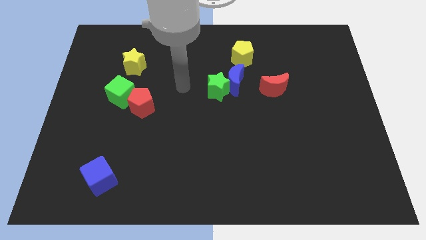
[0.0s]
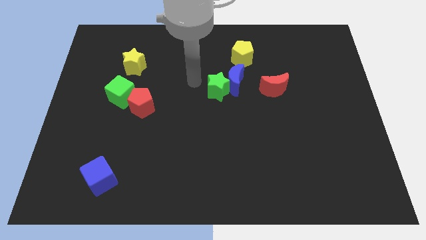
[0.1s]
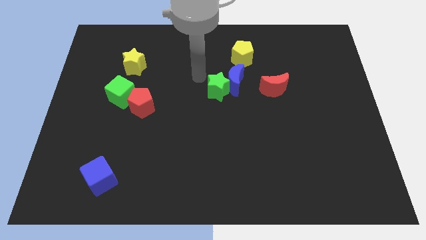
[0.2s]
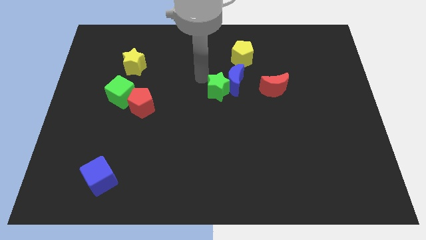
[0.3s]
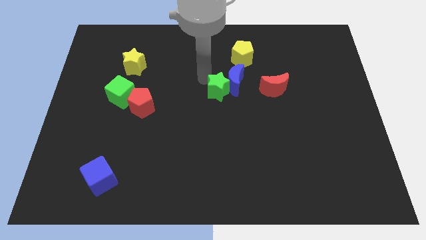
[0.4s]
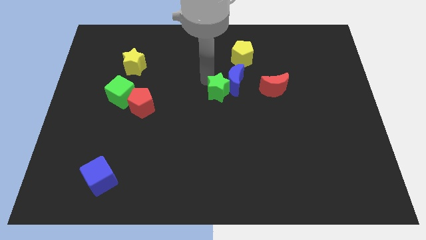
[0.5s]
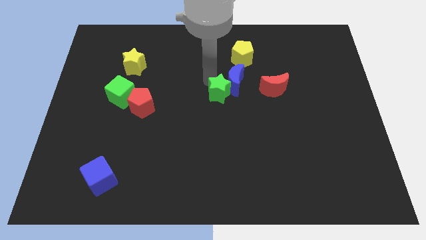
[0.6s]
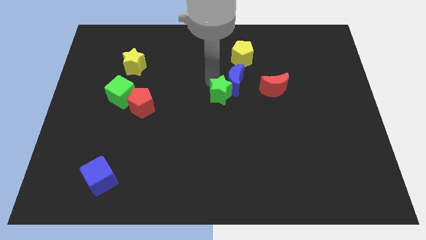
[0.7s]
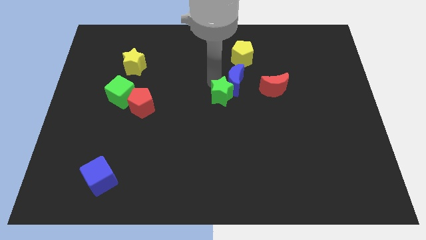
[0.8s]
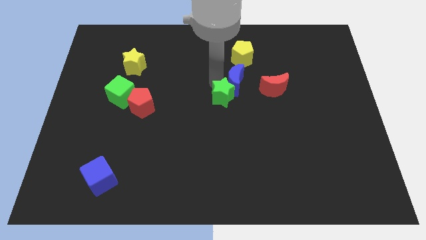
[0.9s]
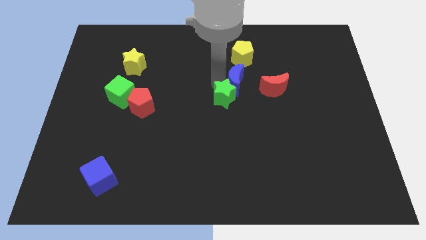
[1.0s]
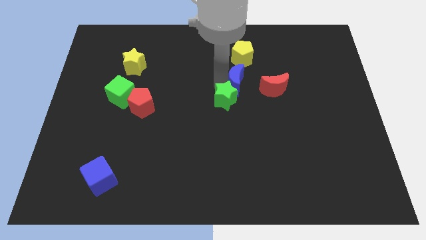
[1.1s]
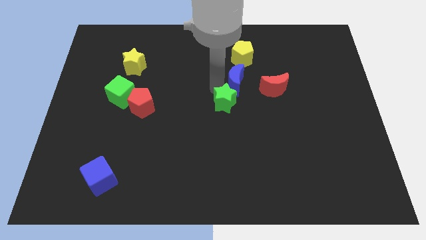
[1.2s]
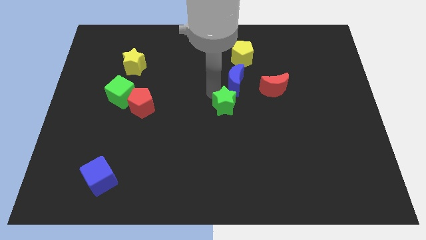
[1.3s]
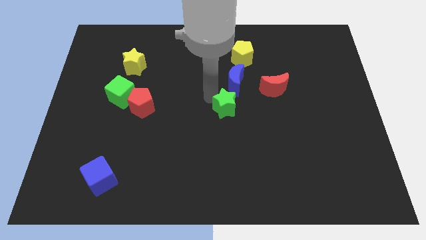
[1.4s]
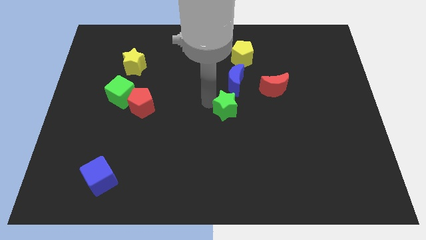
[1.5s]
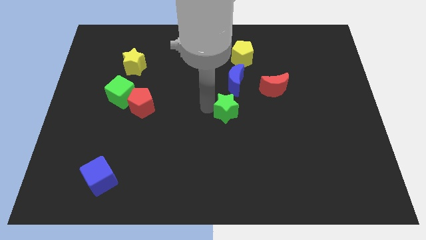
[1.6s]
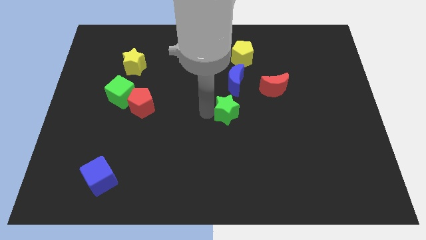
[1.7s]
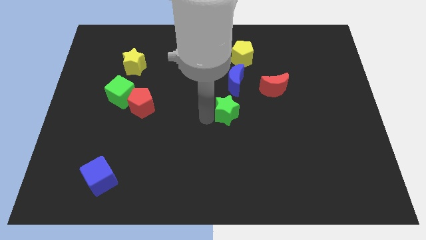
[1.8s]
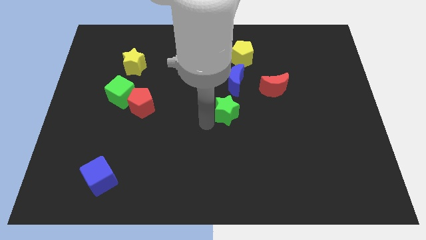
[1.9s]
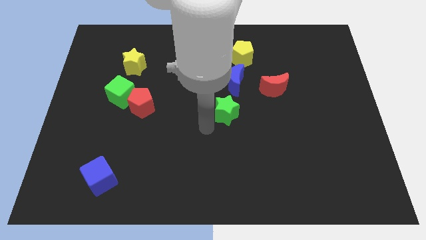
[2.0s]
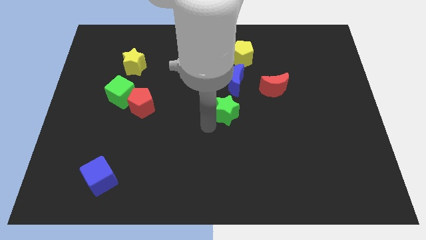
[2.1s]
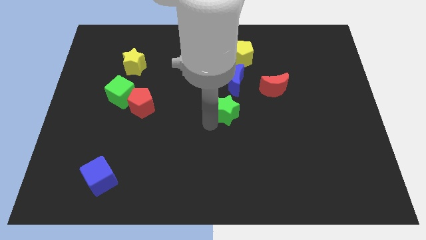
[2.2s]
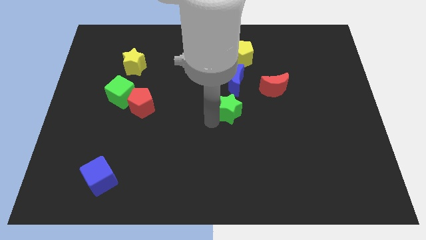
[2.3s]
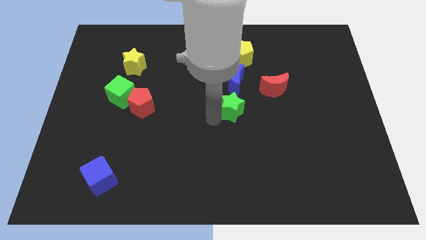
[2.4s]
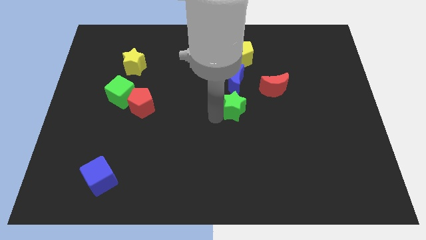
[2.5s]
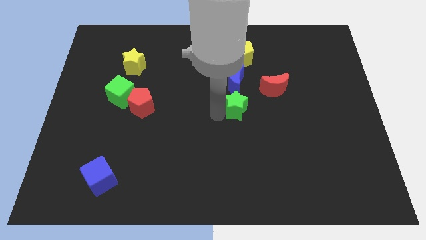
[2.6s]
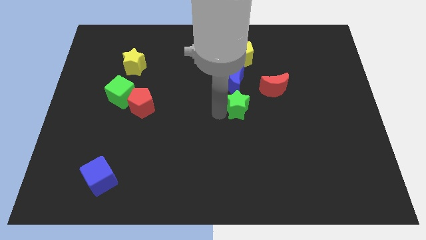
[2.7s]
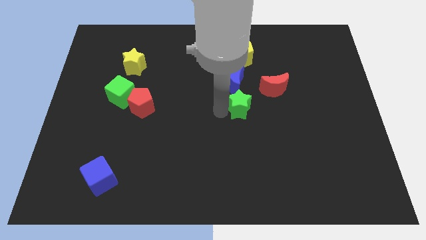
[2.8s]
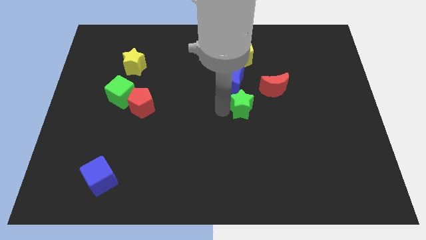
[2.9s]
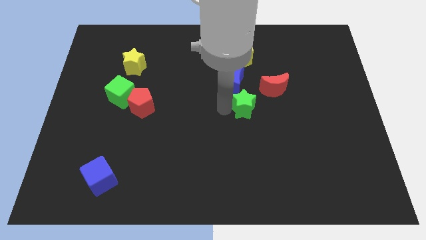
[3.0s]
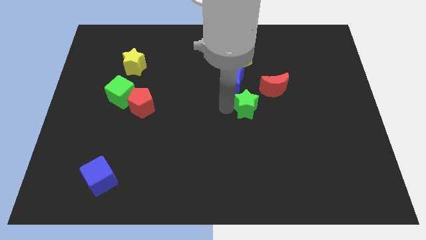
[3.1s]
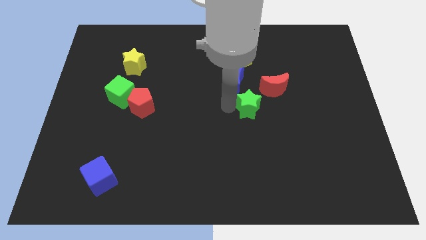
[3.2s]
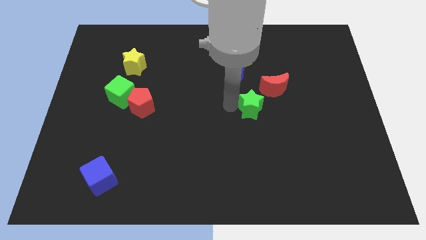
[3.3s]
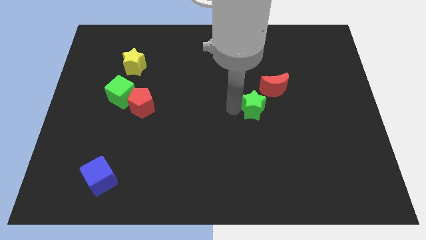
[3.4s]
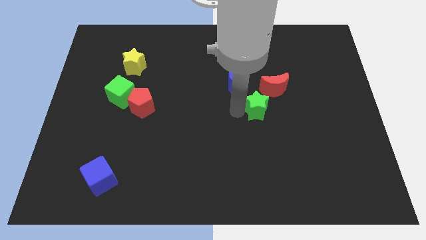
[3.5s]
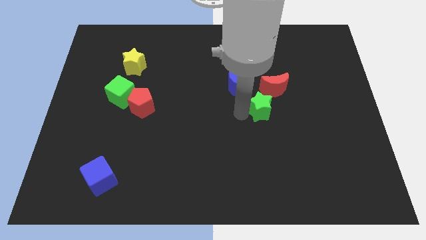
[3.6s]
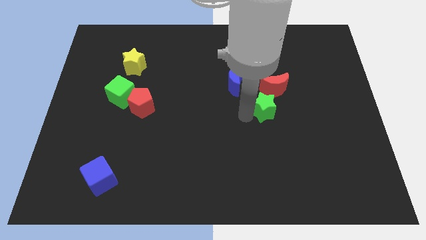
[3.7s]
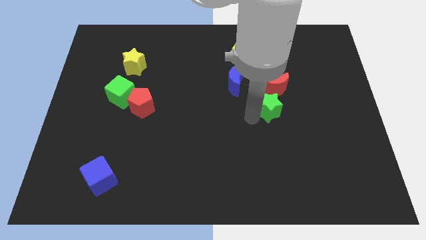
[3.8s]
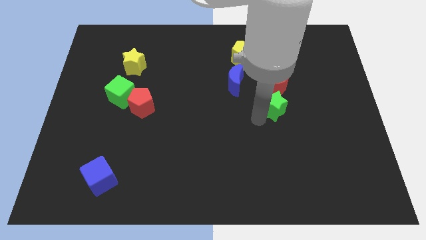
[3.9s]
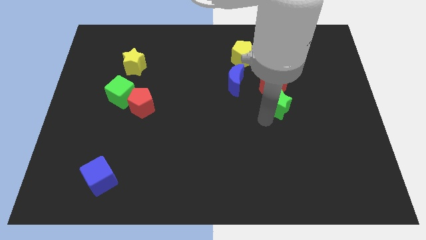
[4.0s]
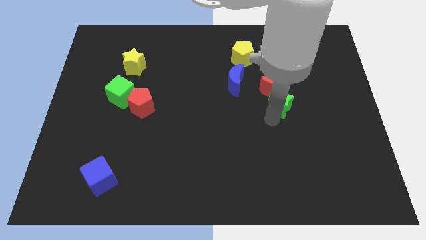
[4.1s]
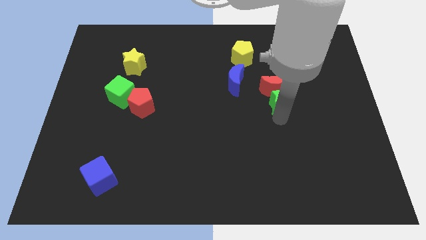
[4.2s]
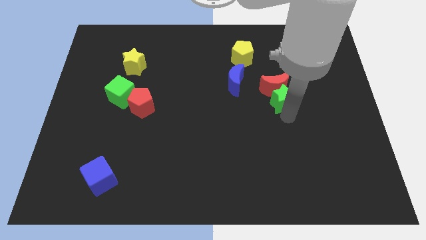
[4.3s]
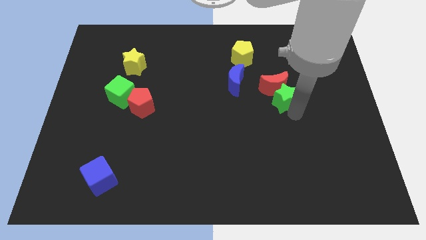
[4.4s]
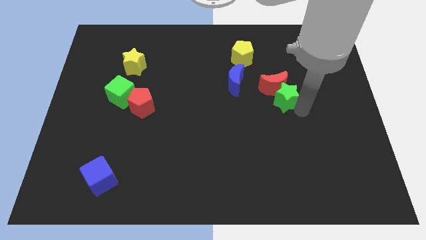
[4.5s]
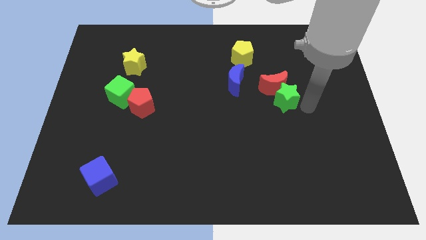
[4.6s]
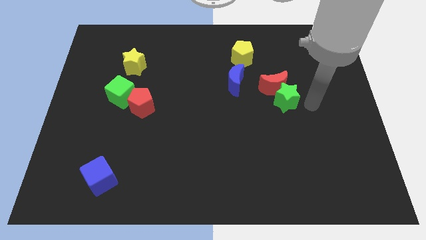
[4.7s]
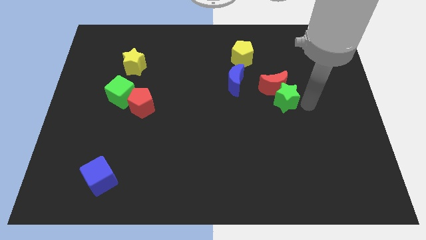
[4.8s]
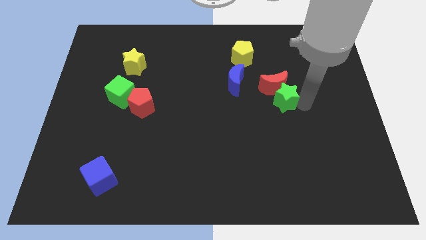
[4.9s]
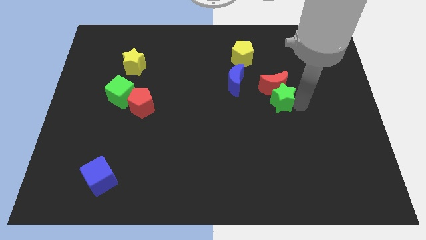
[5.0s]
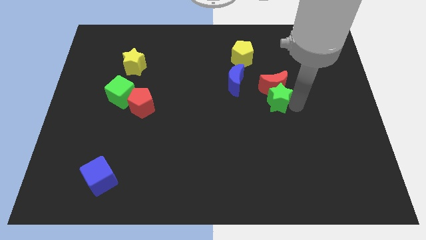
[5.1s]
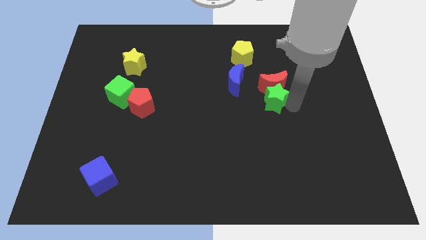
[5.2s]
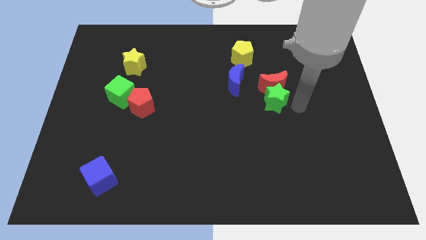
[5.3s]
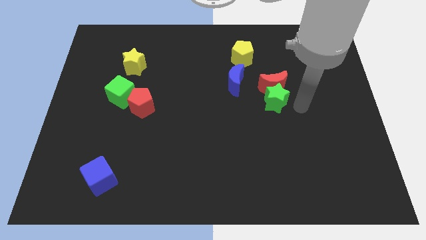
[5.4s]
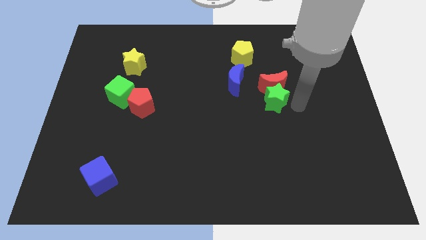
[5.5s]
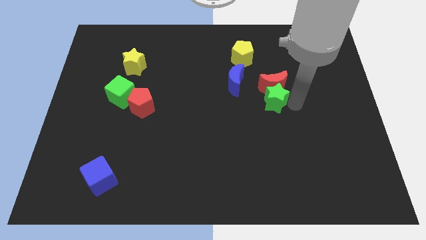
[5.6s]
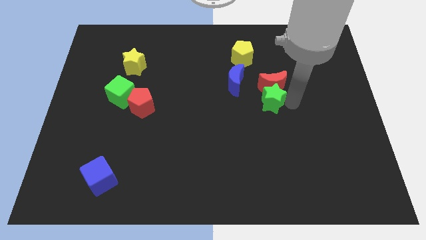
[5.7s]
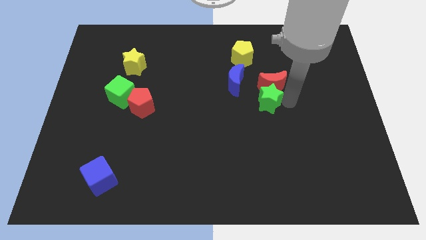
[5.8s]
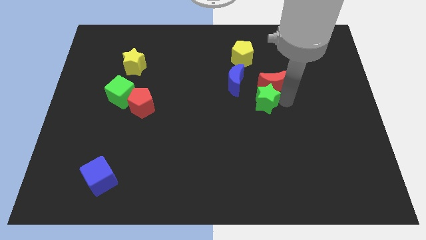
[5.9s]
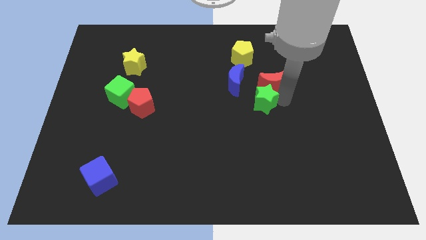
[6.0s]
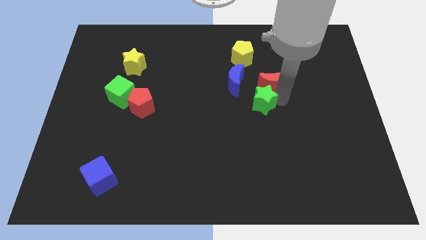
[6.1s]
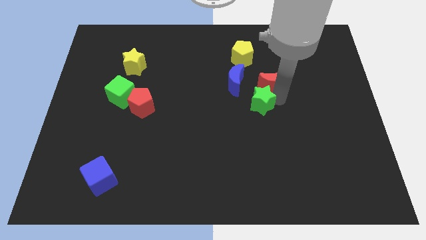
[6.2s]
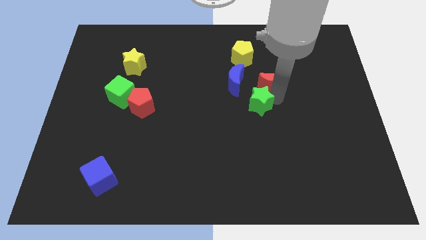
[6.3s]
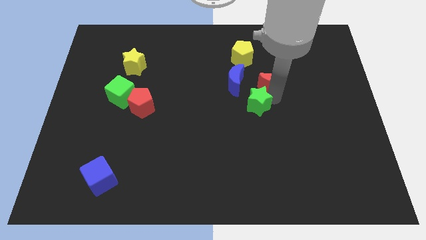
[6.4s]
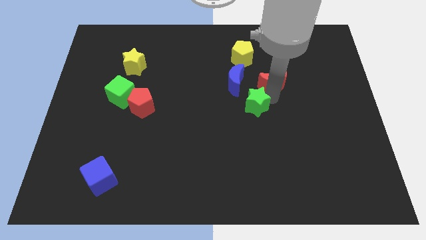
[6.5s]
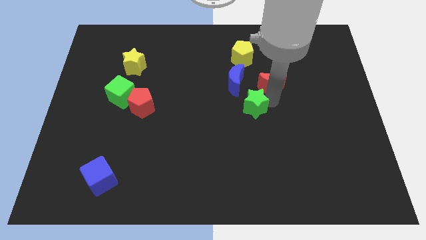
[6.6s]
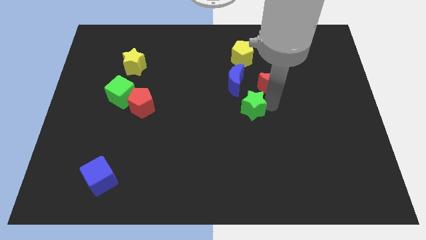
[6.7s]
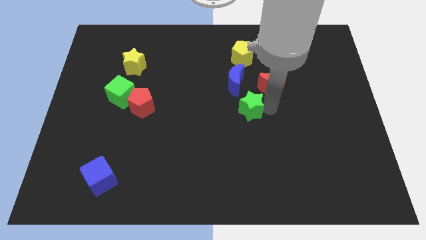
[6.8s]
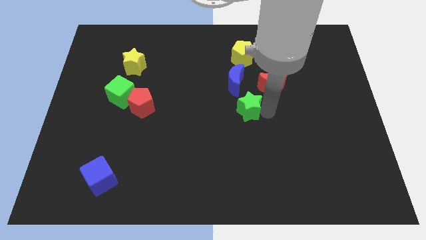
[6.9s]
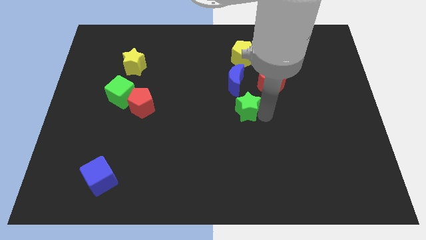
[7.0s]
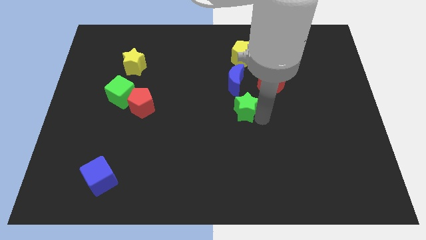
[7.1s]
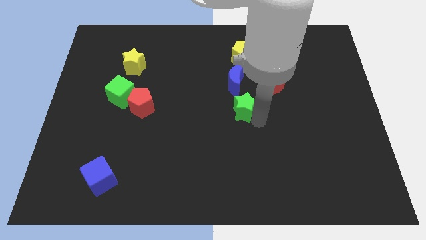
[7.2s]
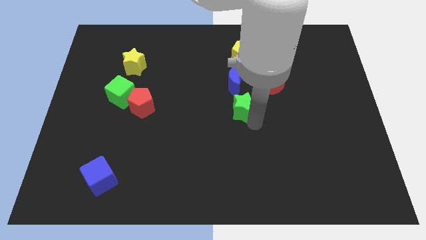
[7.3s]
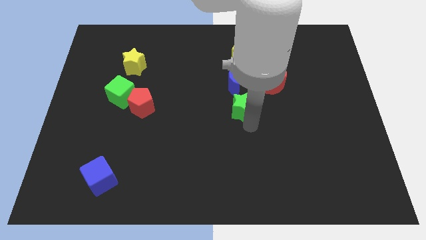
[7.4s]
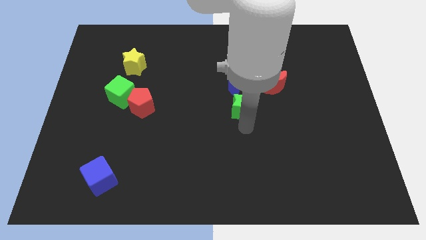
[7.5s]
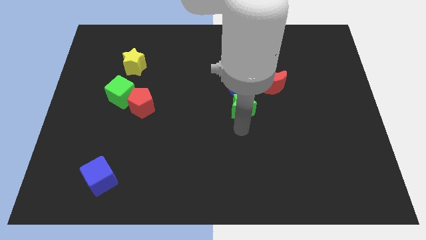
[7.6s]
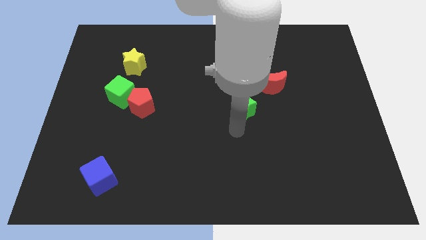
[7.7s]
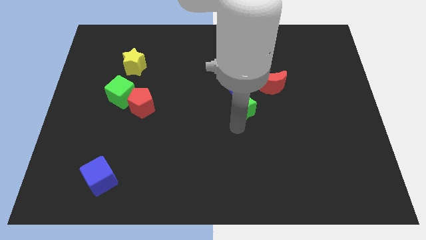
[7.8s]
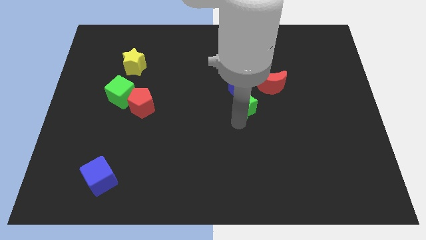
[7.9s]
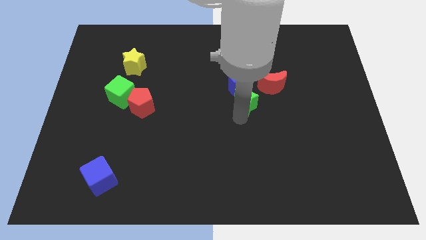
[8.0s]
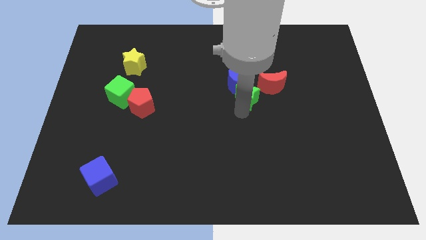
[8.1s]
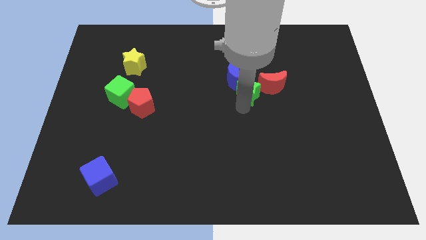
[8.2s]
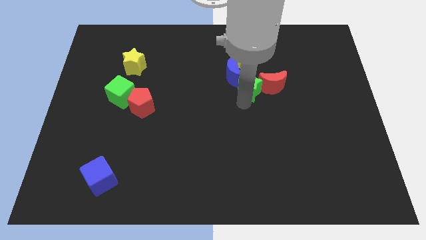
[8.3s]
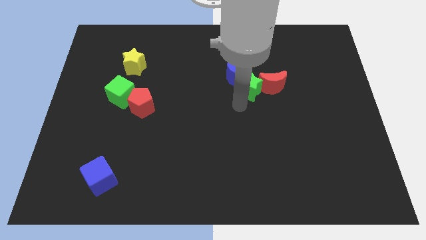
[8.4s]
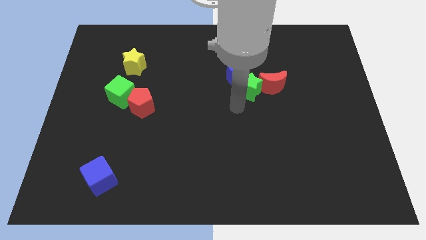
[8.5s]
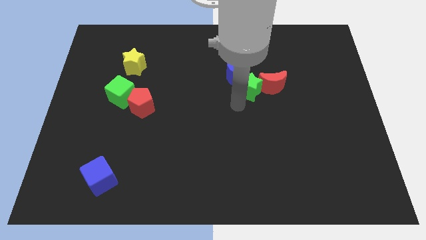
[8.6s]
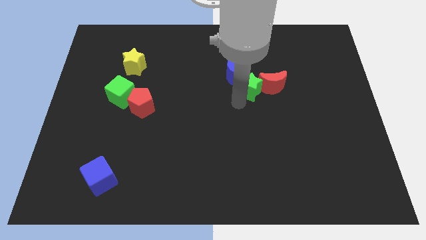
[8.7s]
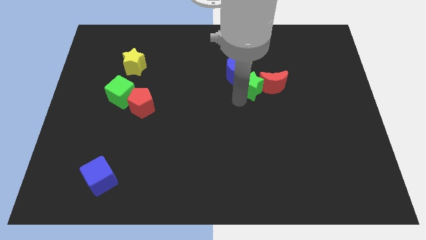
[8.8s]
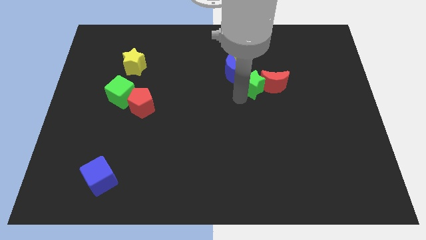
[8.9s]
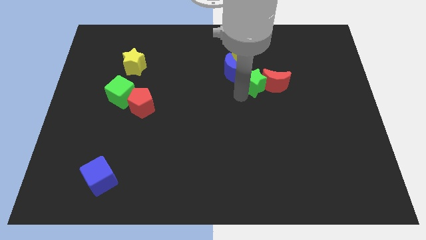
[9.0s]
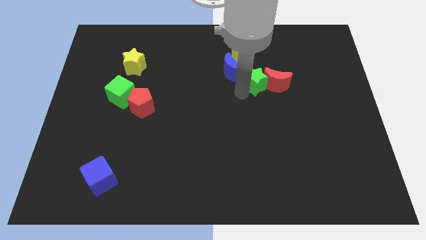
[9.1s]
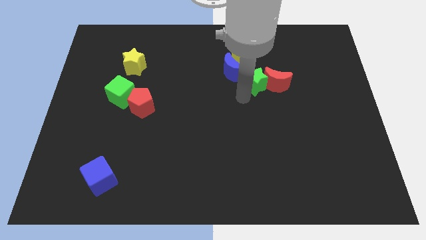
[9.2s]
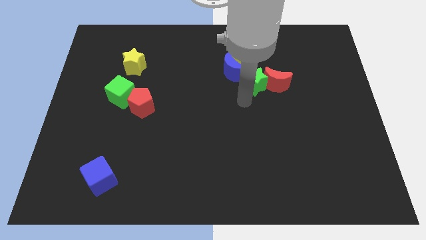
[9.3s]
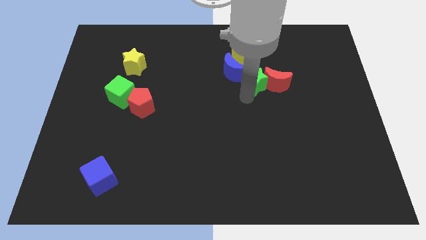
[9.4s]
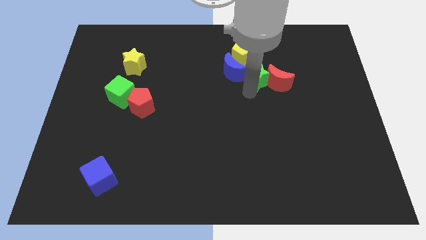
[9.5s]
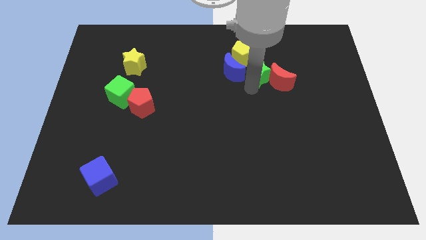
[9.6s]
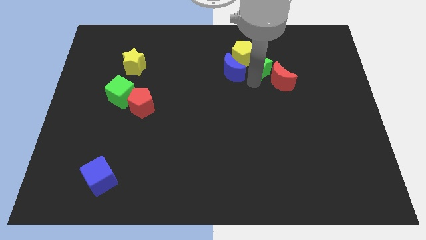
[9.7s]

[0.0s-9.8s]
slide the green star to the top side of the red moon
